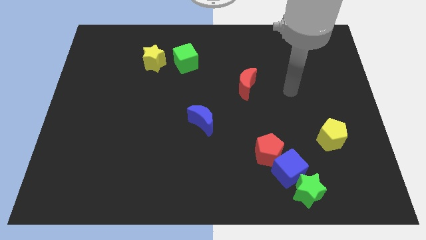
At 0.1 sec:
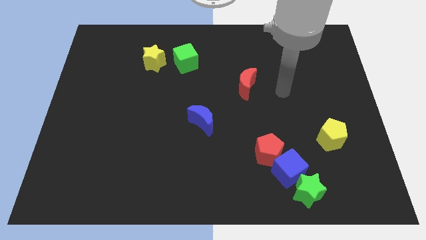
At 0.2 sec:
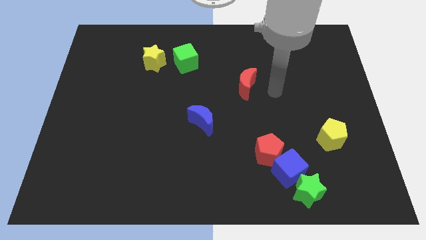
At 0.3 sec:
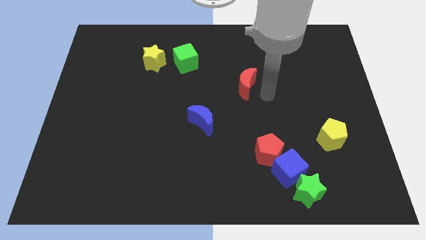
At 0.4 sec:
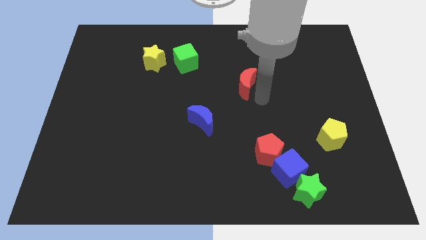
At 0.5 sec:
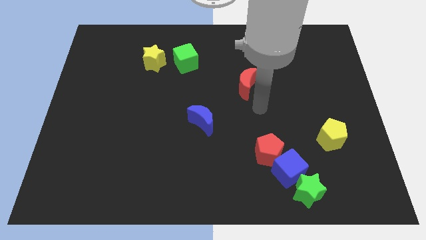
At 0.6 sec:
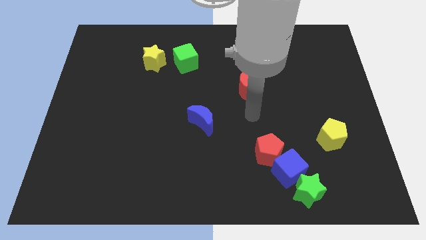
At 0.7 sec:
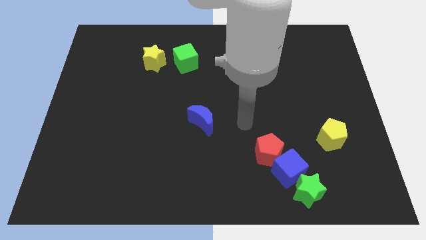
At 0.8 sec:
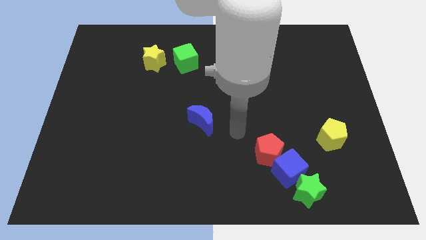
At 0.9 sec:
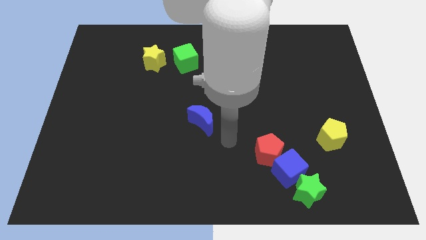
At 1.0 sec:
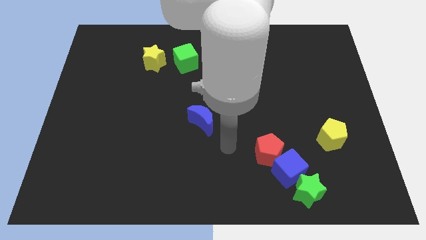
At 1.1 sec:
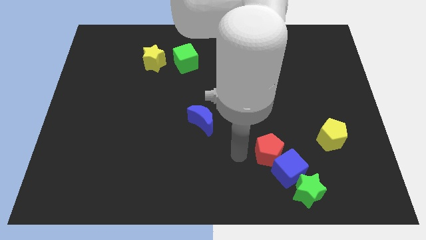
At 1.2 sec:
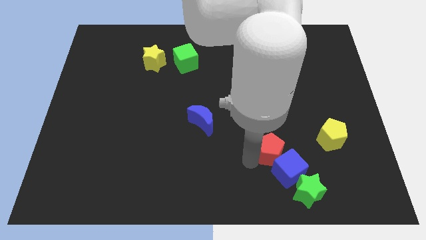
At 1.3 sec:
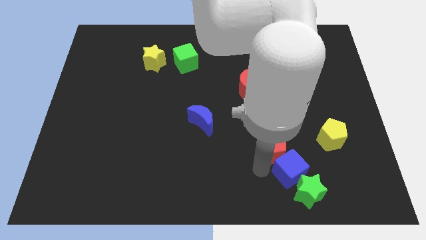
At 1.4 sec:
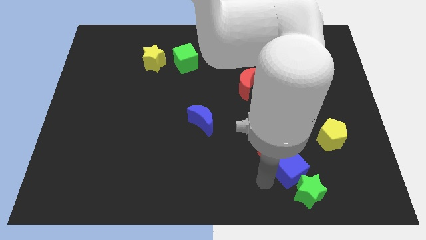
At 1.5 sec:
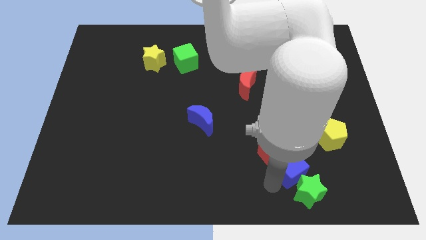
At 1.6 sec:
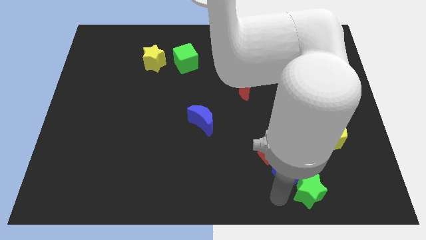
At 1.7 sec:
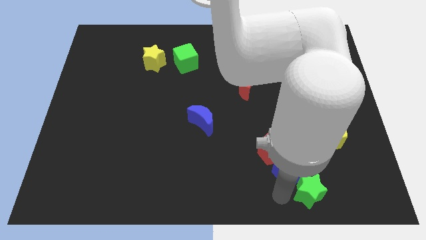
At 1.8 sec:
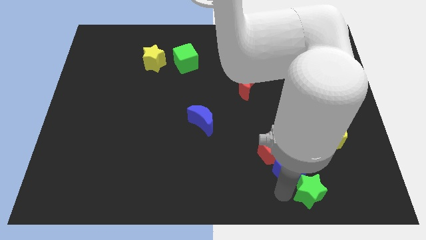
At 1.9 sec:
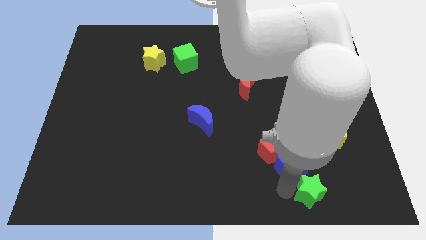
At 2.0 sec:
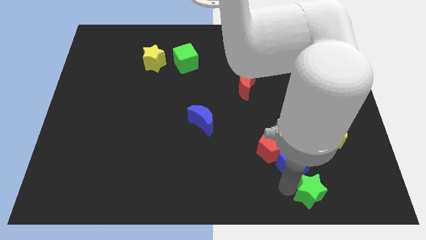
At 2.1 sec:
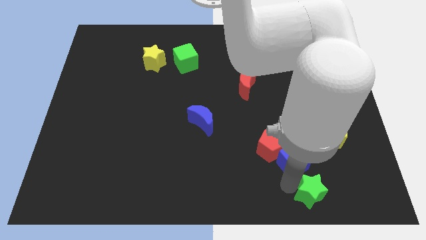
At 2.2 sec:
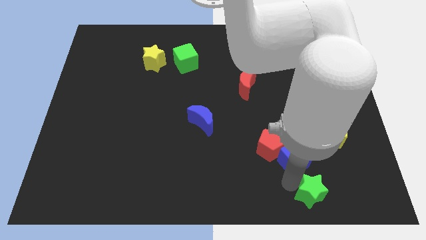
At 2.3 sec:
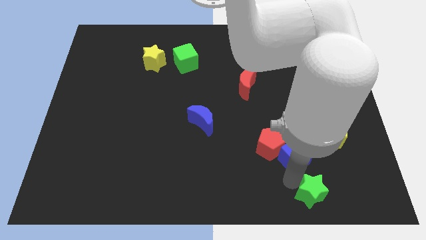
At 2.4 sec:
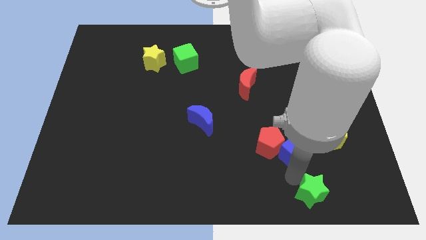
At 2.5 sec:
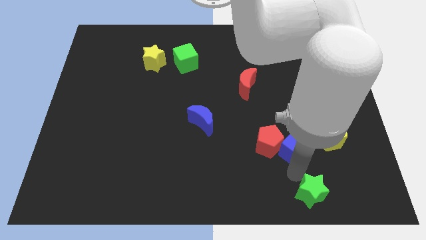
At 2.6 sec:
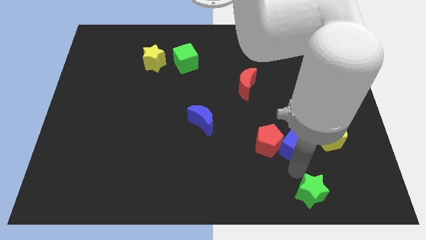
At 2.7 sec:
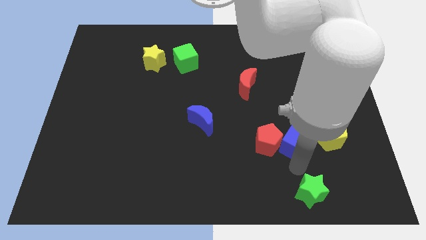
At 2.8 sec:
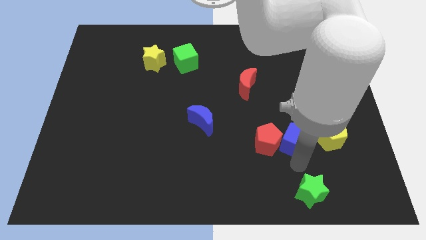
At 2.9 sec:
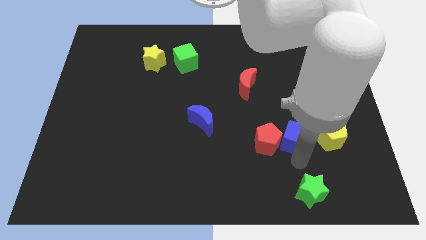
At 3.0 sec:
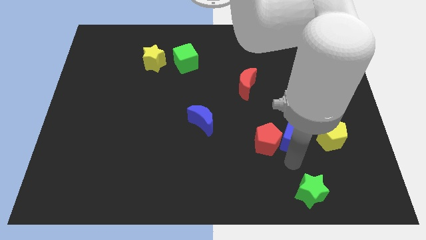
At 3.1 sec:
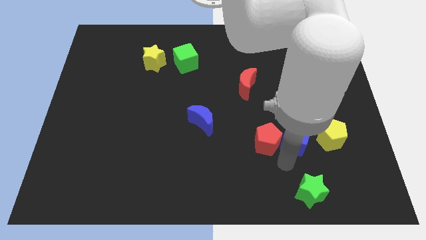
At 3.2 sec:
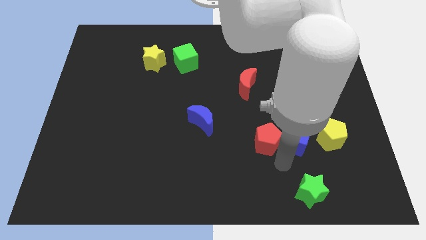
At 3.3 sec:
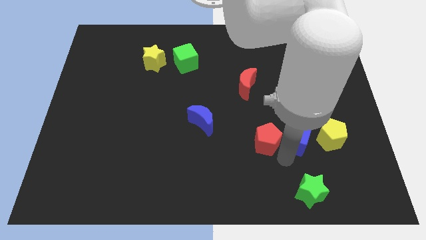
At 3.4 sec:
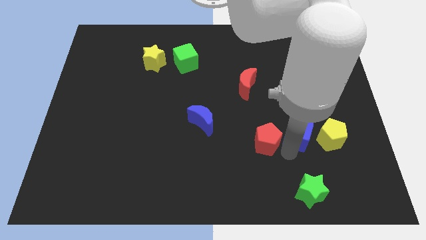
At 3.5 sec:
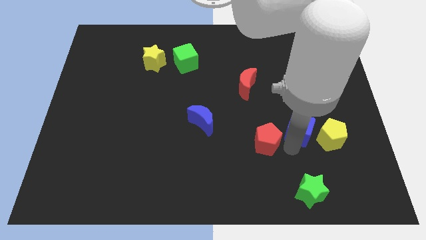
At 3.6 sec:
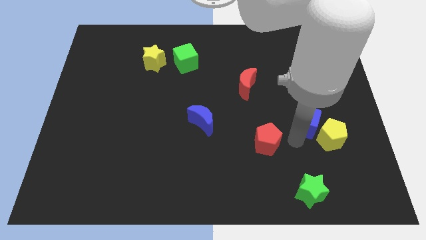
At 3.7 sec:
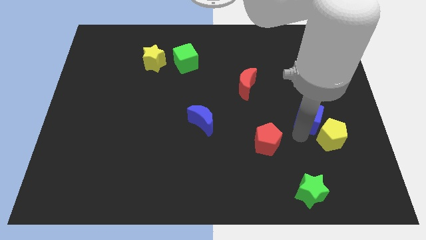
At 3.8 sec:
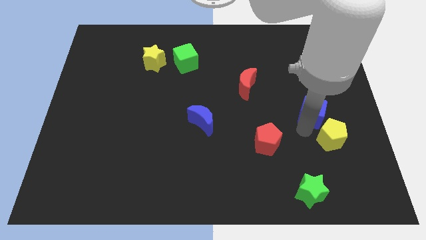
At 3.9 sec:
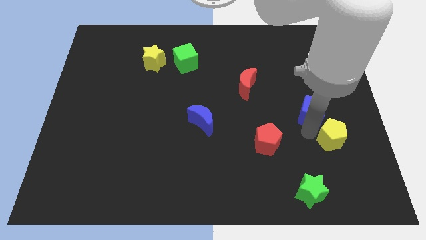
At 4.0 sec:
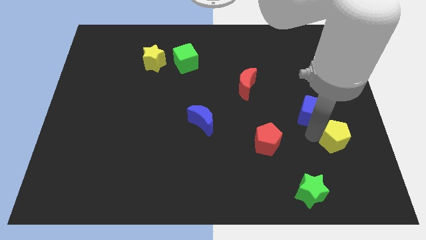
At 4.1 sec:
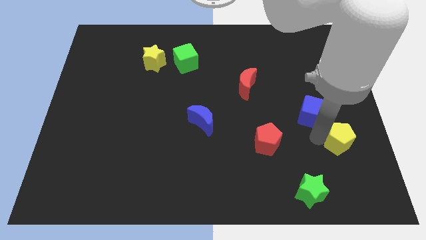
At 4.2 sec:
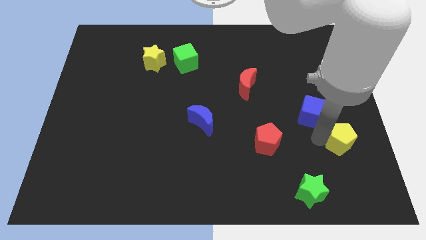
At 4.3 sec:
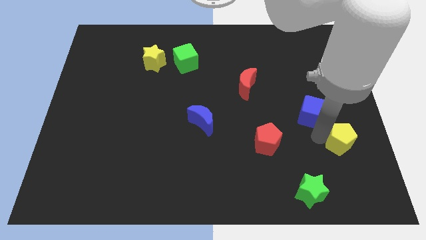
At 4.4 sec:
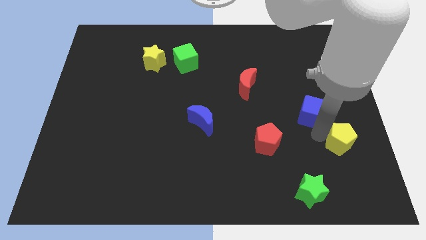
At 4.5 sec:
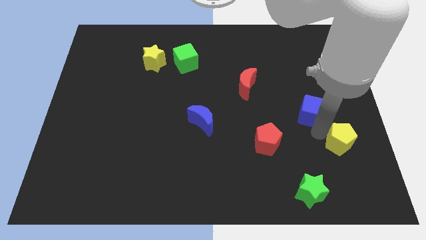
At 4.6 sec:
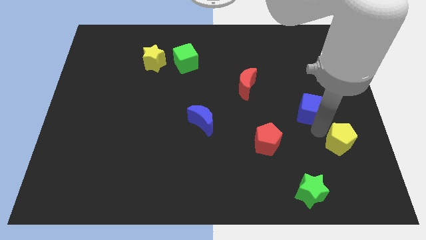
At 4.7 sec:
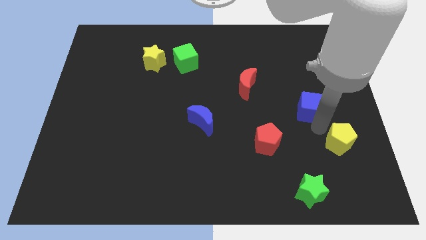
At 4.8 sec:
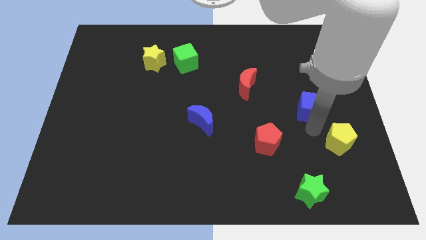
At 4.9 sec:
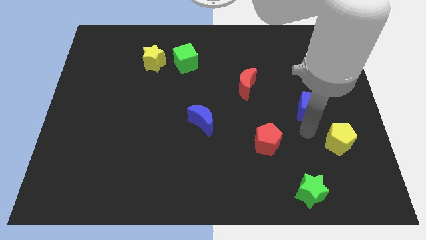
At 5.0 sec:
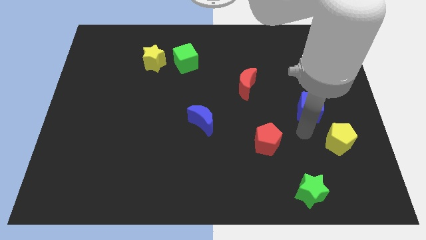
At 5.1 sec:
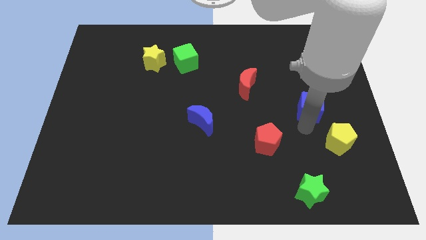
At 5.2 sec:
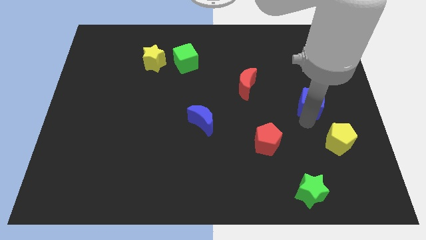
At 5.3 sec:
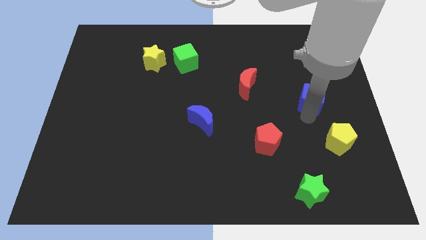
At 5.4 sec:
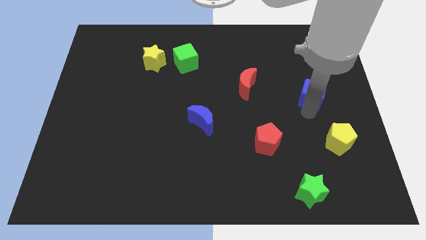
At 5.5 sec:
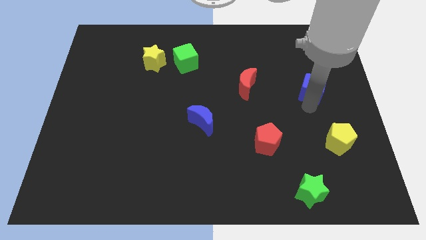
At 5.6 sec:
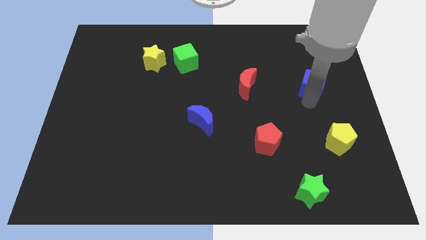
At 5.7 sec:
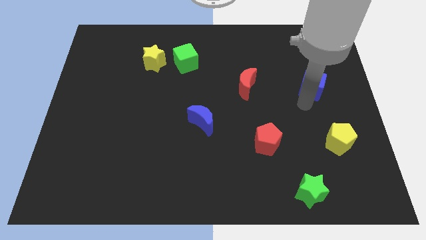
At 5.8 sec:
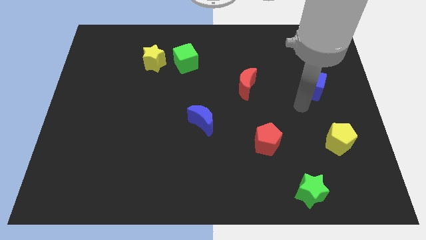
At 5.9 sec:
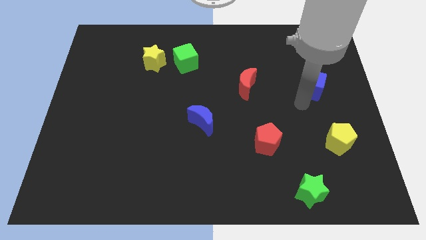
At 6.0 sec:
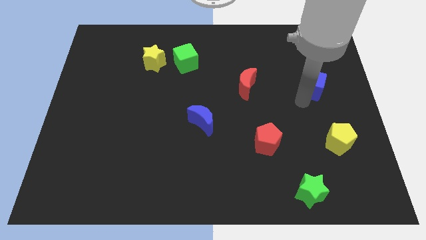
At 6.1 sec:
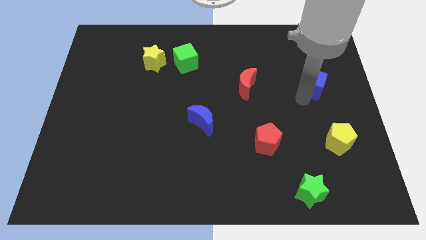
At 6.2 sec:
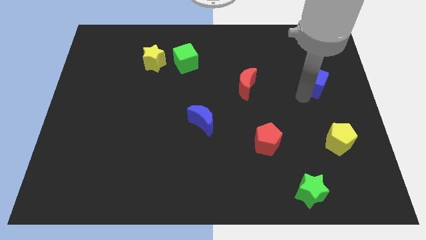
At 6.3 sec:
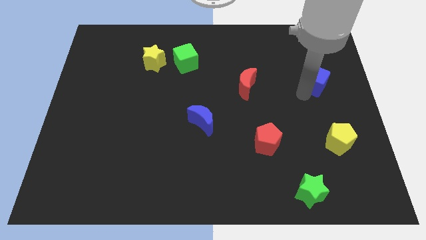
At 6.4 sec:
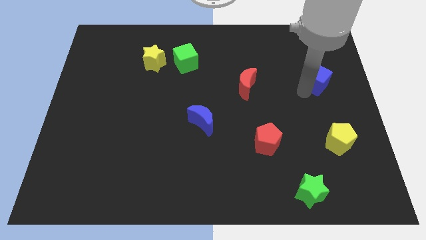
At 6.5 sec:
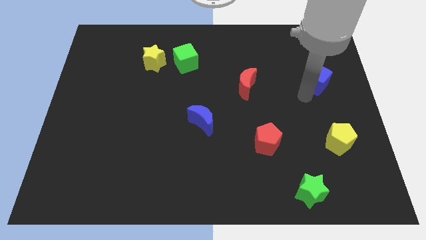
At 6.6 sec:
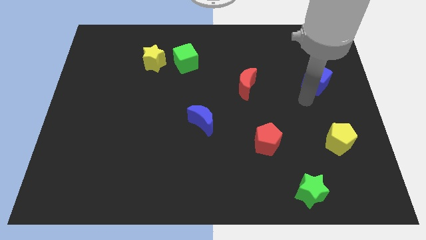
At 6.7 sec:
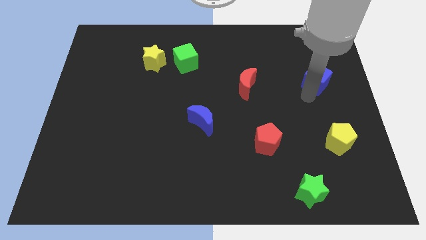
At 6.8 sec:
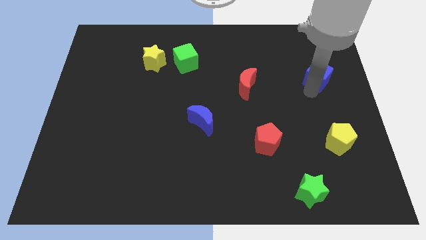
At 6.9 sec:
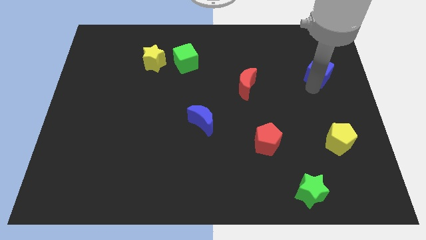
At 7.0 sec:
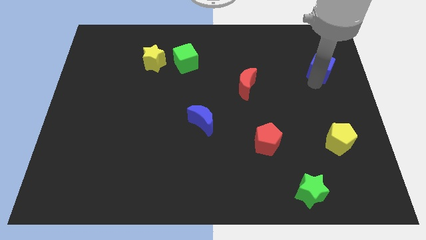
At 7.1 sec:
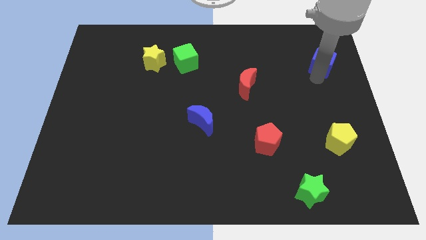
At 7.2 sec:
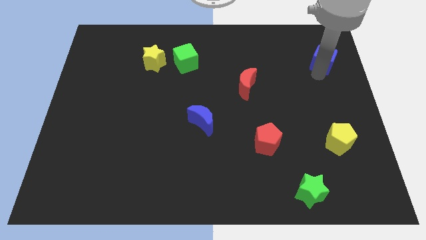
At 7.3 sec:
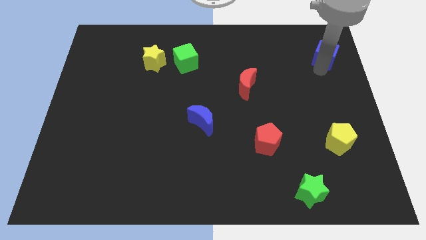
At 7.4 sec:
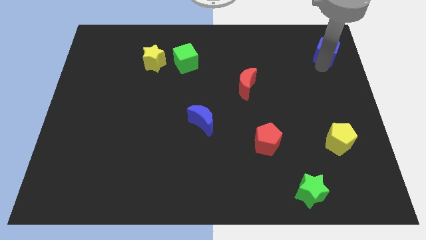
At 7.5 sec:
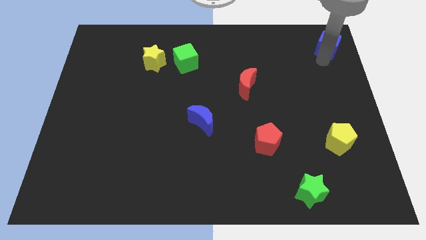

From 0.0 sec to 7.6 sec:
put the blue cube to the top right of the board

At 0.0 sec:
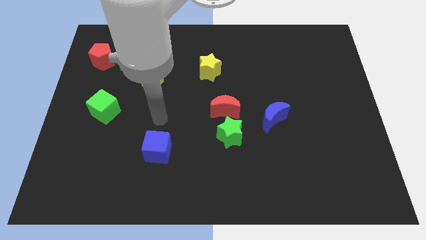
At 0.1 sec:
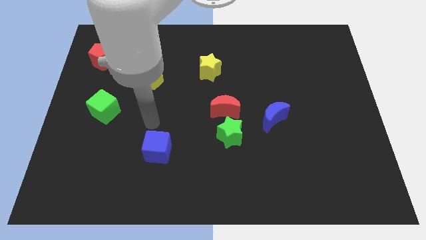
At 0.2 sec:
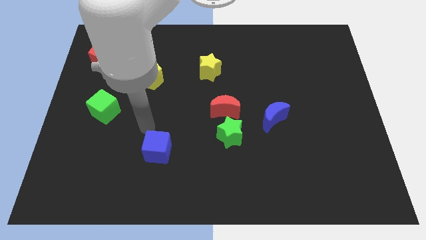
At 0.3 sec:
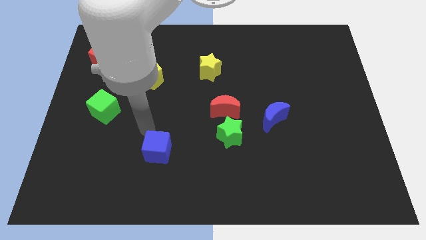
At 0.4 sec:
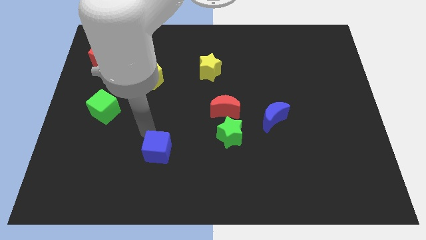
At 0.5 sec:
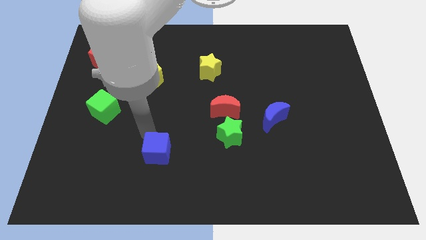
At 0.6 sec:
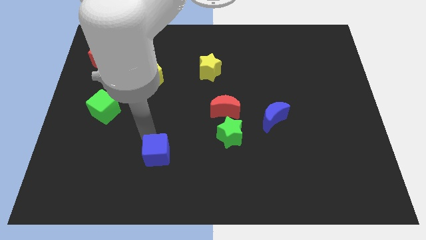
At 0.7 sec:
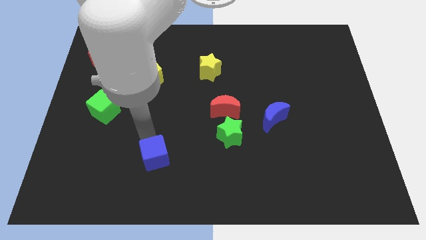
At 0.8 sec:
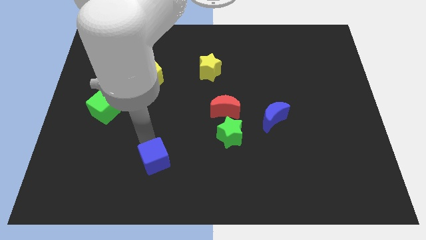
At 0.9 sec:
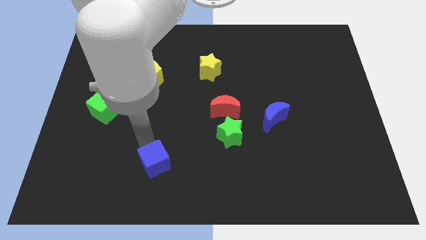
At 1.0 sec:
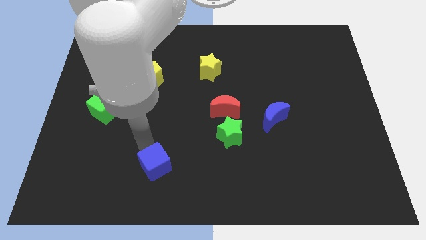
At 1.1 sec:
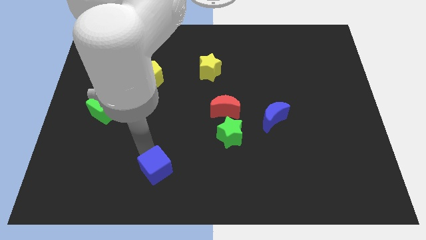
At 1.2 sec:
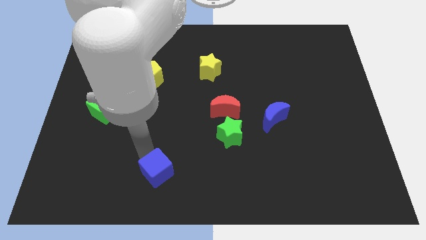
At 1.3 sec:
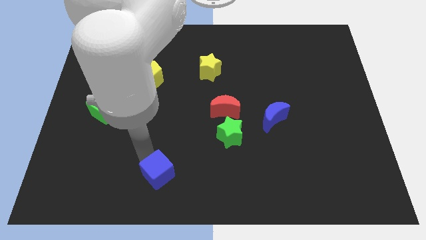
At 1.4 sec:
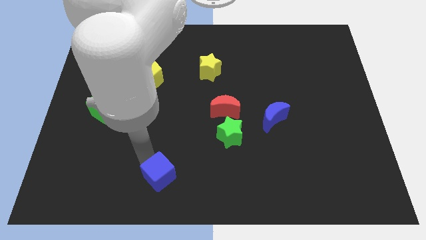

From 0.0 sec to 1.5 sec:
push the blue cube to the bottom side
